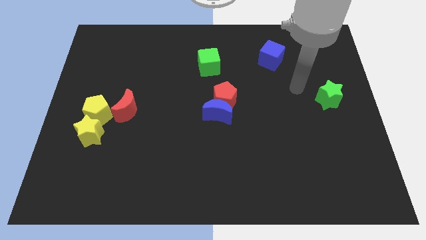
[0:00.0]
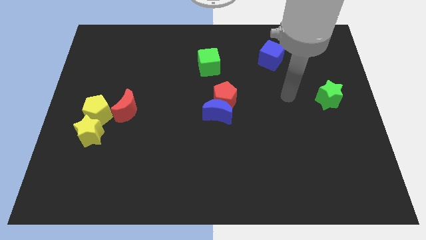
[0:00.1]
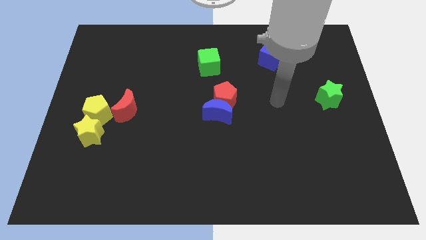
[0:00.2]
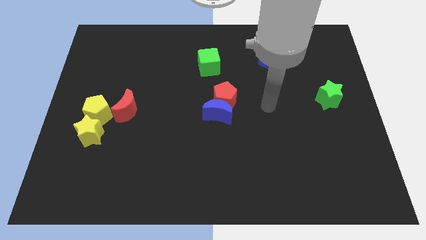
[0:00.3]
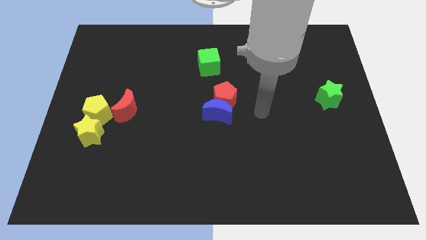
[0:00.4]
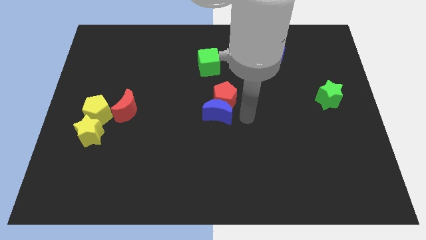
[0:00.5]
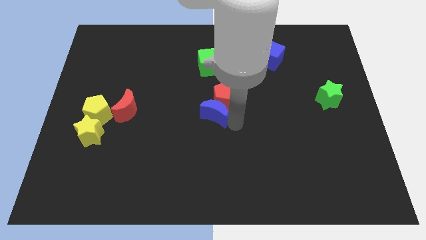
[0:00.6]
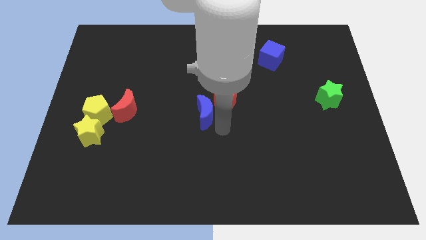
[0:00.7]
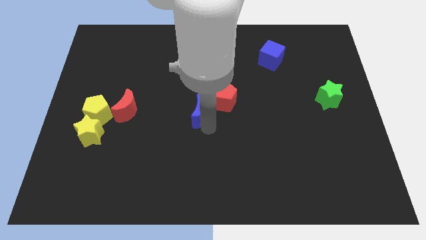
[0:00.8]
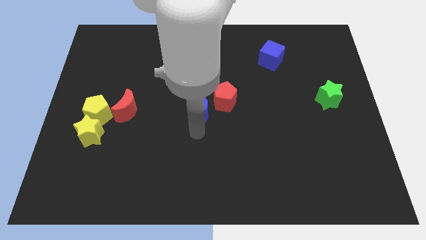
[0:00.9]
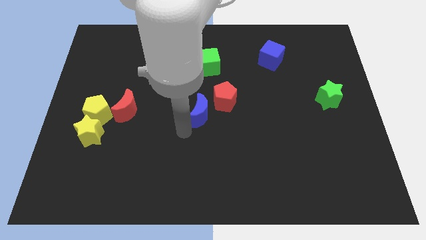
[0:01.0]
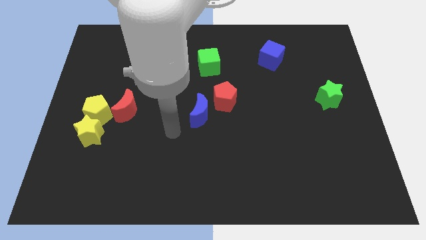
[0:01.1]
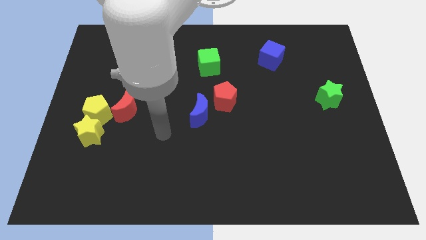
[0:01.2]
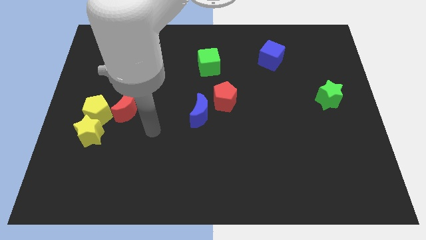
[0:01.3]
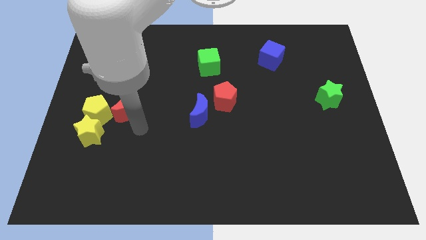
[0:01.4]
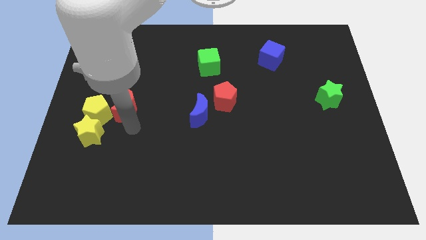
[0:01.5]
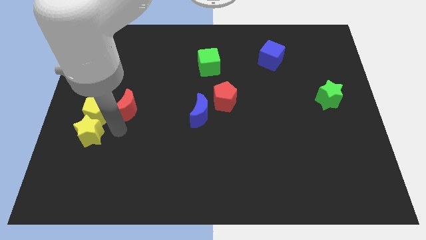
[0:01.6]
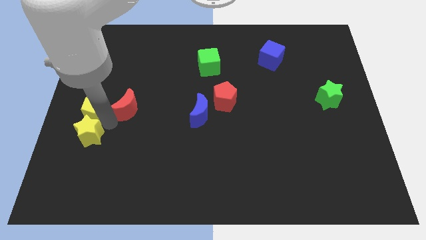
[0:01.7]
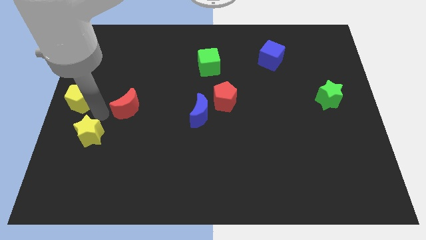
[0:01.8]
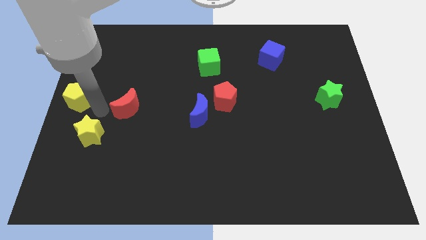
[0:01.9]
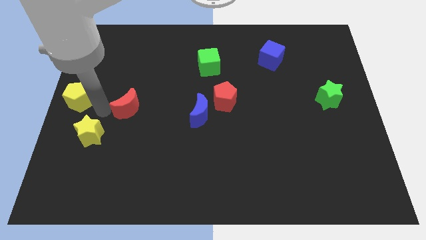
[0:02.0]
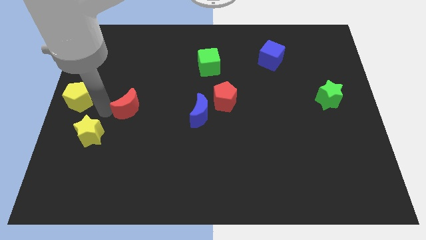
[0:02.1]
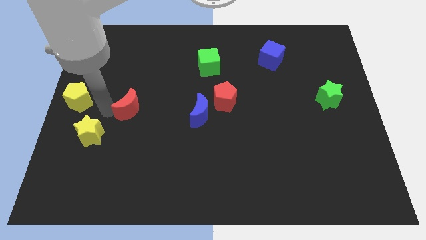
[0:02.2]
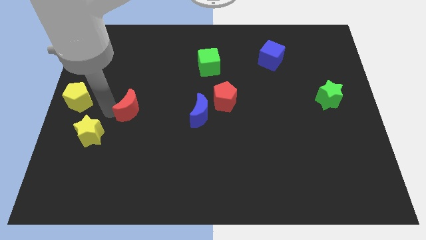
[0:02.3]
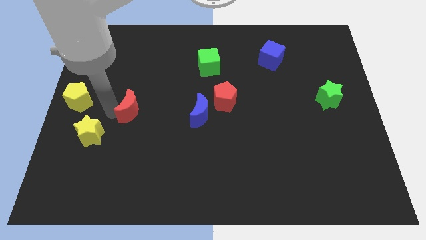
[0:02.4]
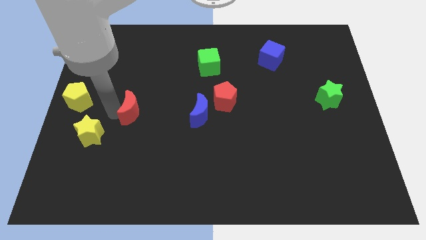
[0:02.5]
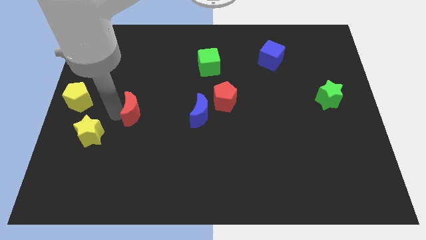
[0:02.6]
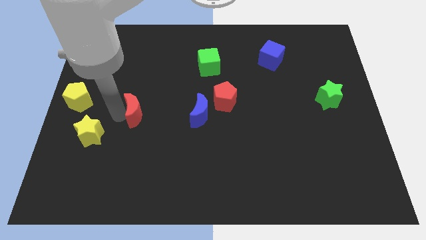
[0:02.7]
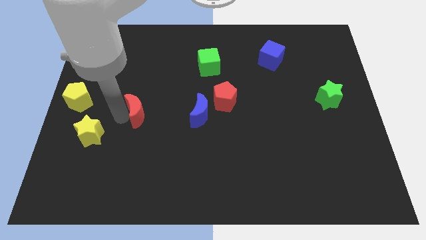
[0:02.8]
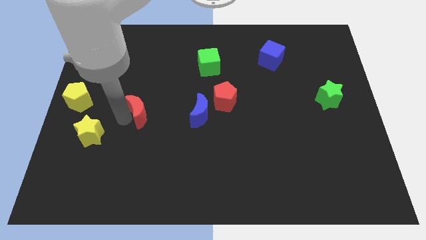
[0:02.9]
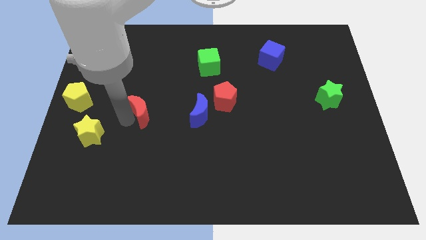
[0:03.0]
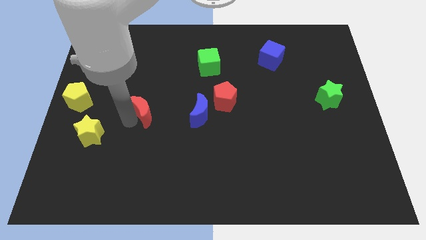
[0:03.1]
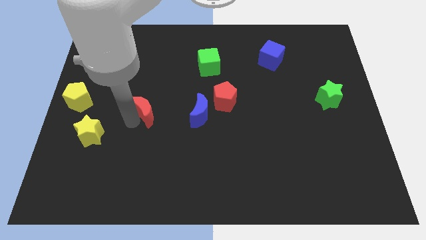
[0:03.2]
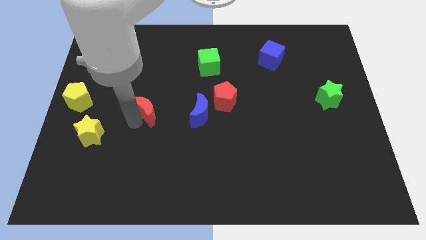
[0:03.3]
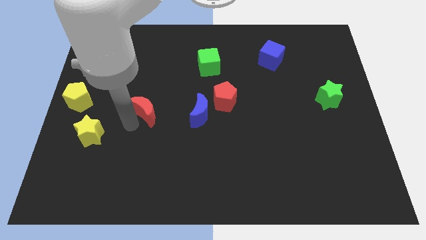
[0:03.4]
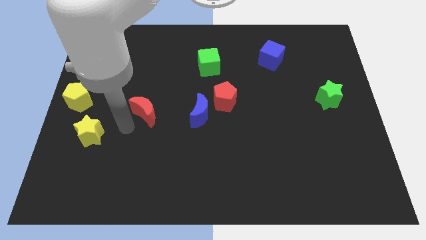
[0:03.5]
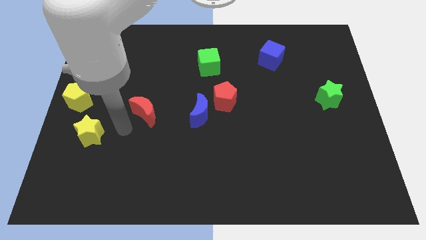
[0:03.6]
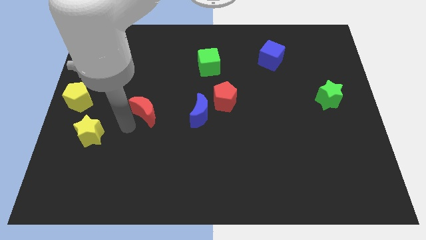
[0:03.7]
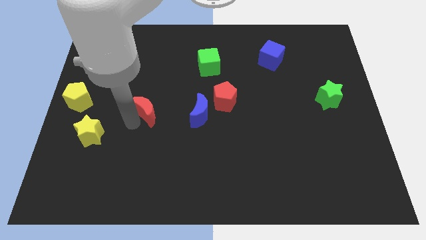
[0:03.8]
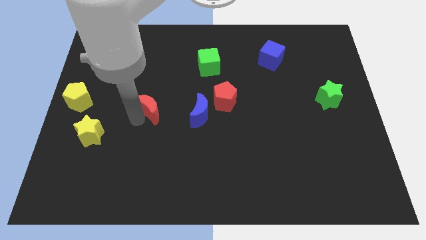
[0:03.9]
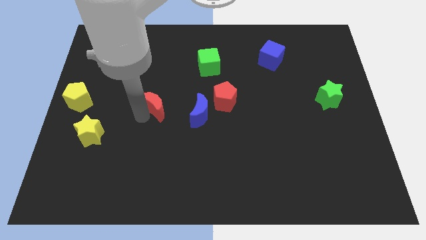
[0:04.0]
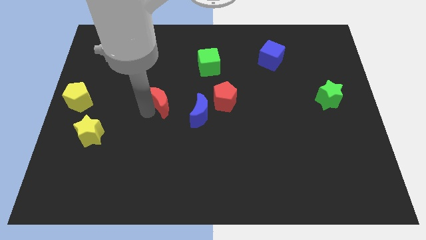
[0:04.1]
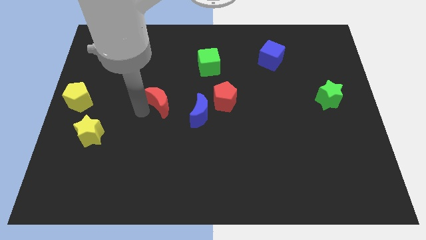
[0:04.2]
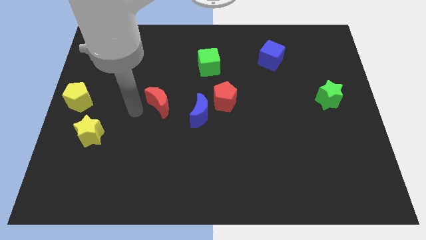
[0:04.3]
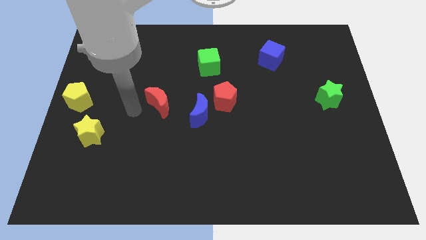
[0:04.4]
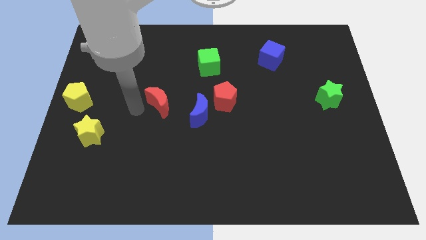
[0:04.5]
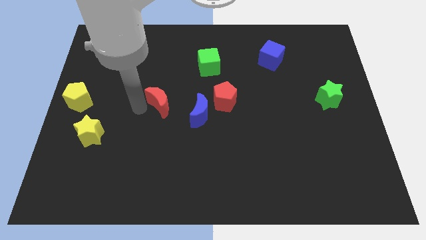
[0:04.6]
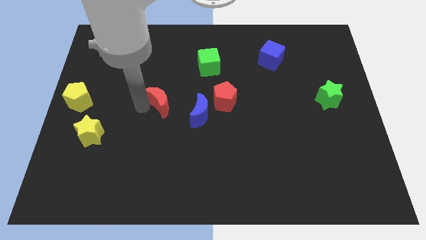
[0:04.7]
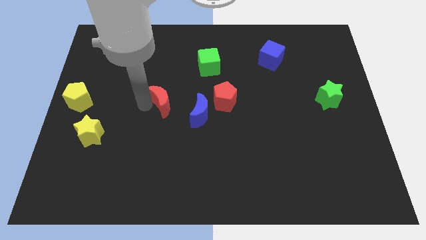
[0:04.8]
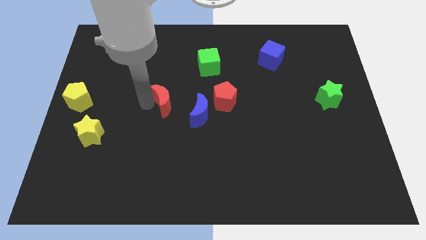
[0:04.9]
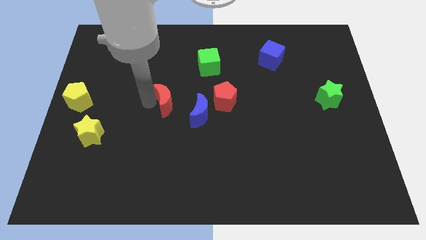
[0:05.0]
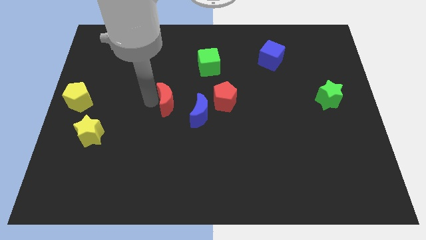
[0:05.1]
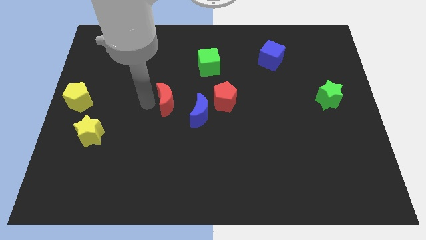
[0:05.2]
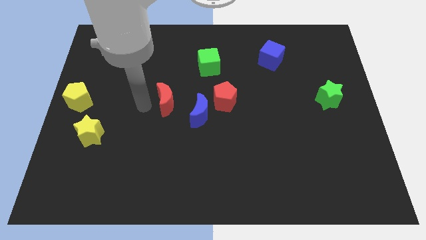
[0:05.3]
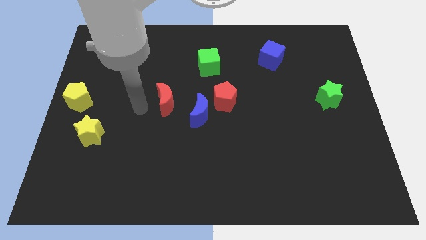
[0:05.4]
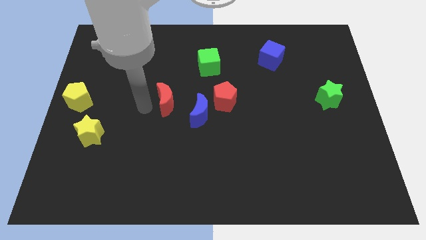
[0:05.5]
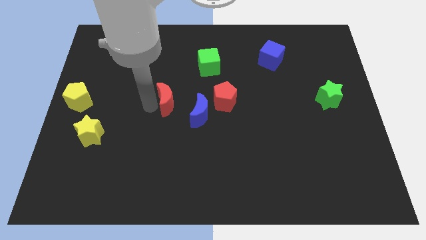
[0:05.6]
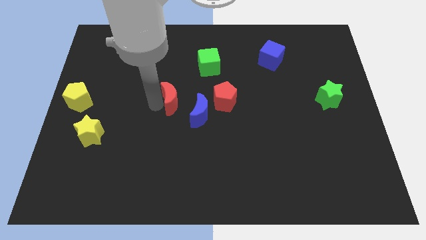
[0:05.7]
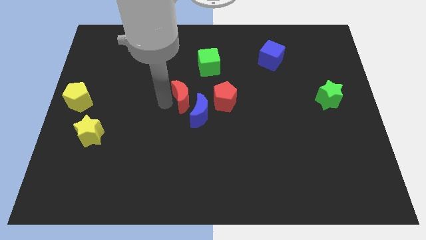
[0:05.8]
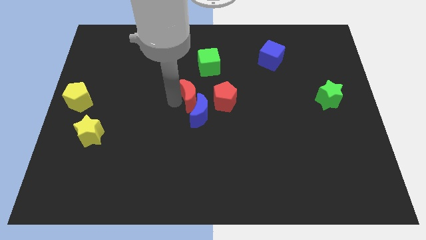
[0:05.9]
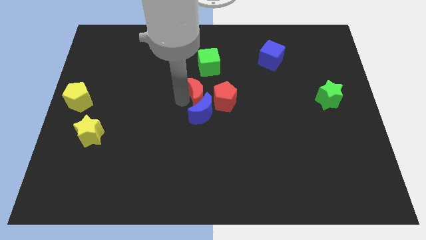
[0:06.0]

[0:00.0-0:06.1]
slide the red moon to the top right of the blue moon

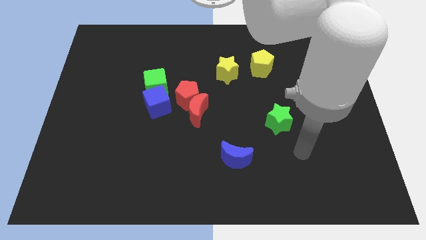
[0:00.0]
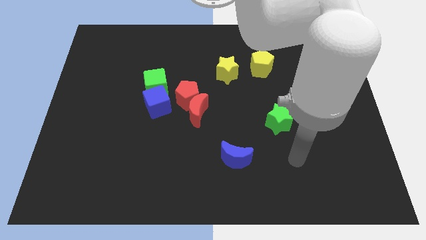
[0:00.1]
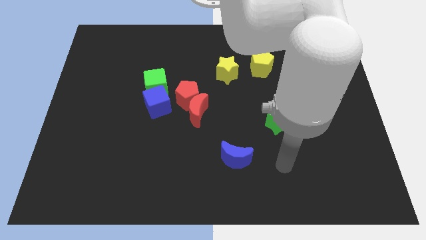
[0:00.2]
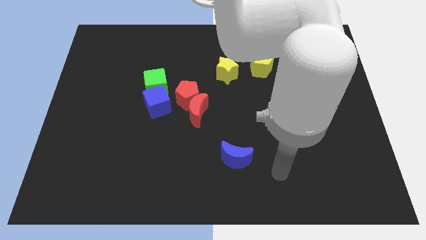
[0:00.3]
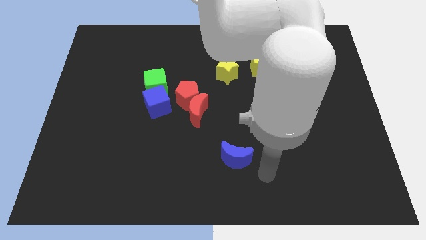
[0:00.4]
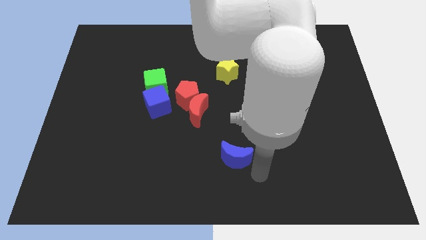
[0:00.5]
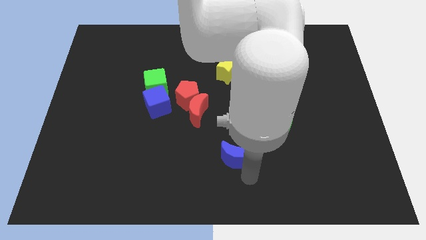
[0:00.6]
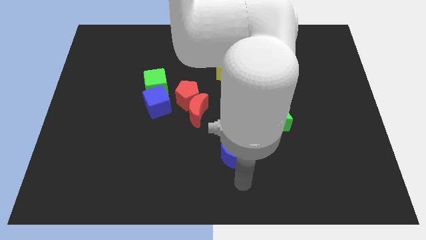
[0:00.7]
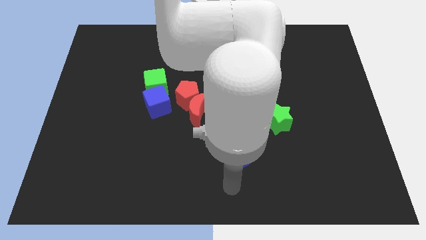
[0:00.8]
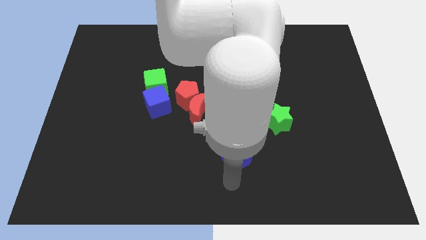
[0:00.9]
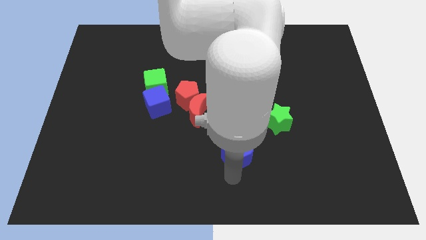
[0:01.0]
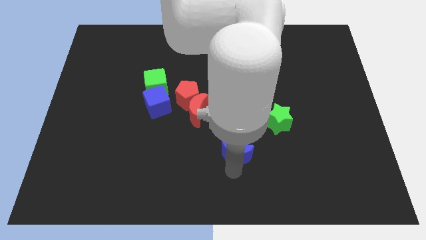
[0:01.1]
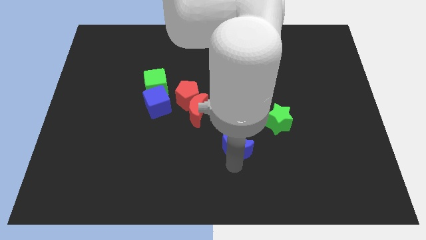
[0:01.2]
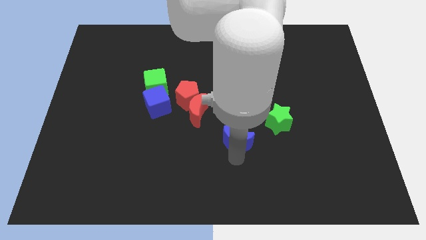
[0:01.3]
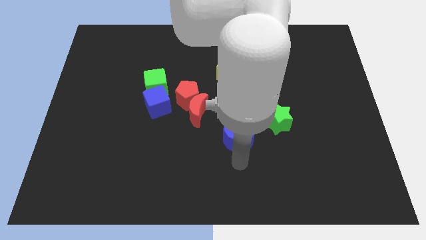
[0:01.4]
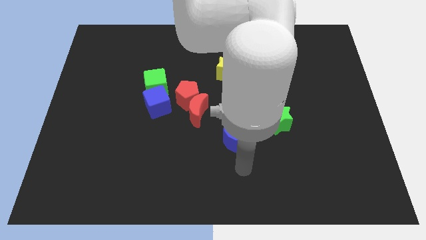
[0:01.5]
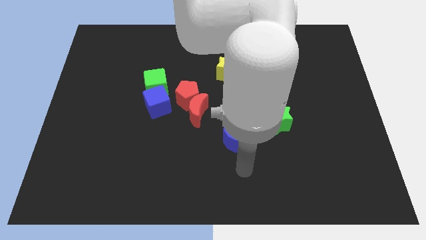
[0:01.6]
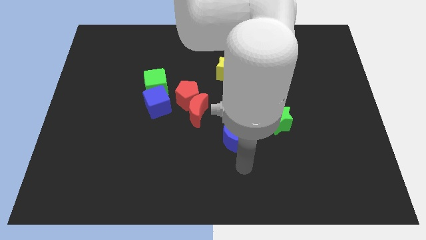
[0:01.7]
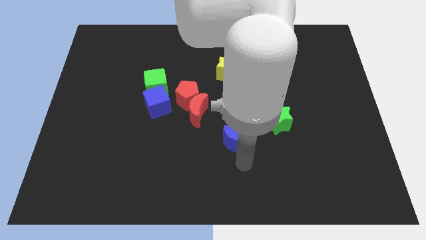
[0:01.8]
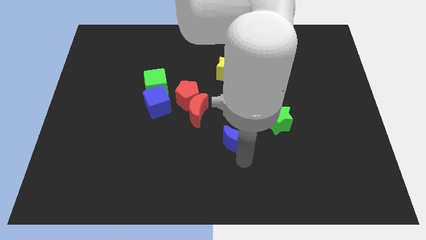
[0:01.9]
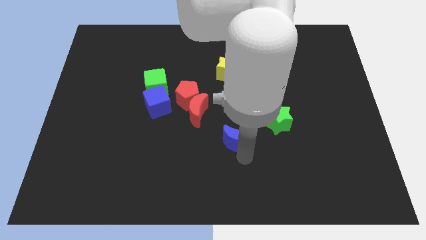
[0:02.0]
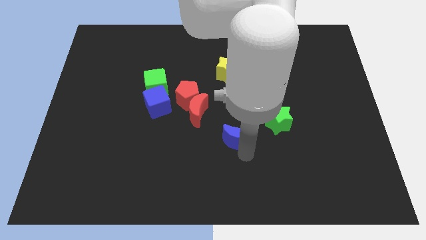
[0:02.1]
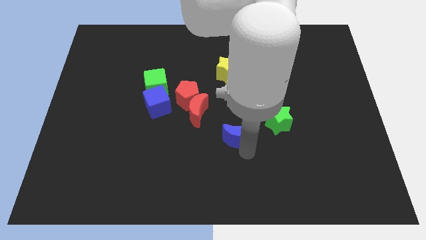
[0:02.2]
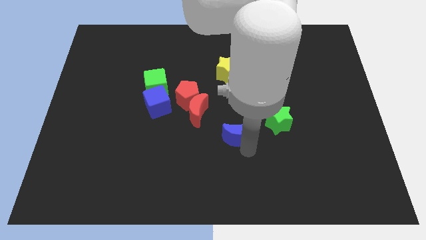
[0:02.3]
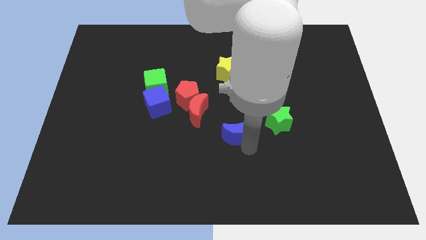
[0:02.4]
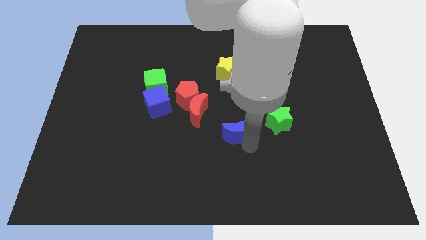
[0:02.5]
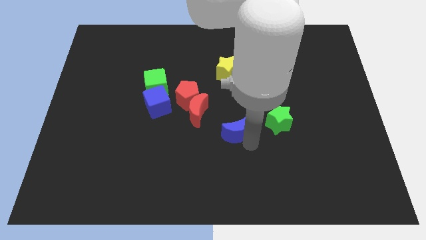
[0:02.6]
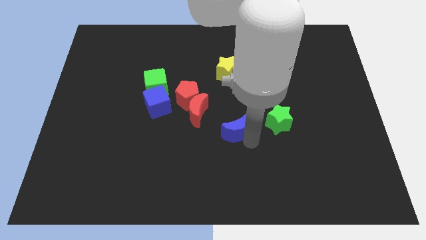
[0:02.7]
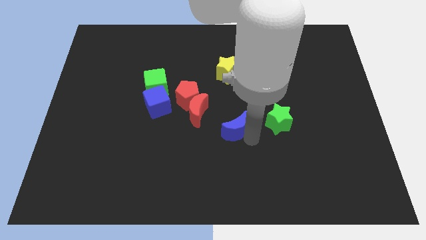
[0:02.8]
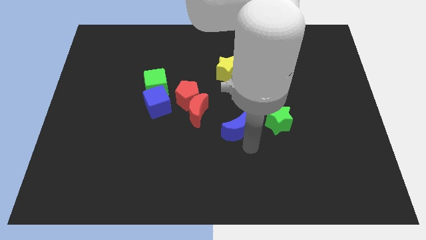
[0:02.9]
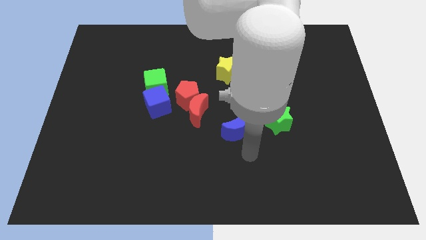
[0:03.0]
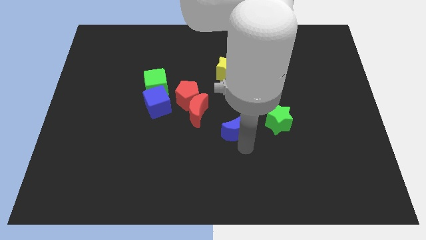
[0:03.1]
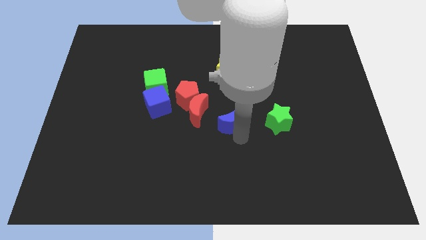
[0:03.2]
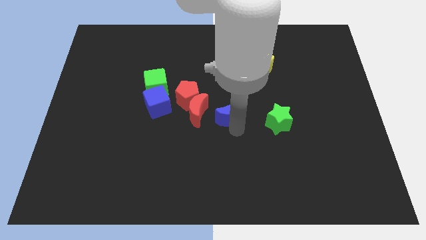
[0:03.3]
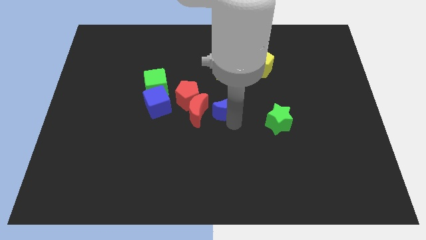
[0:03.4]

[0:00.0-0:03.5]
move the blue moon diagonally up and to the right of the red moon
